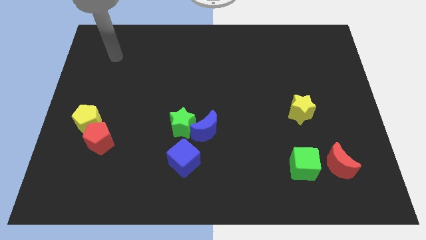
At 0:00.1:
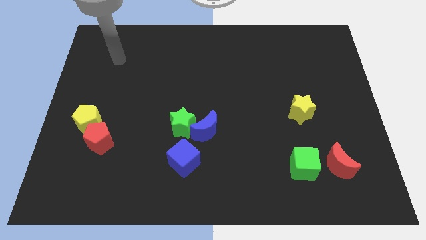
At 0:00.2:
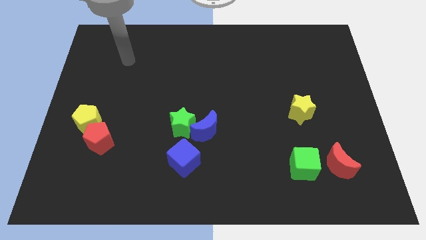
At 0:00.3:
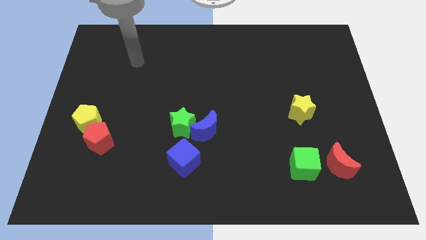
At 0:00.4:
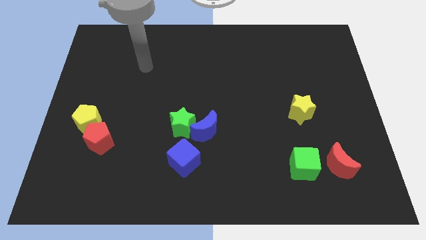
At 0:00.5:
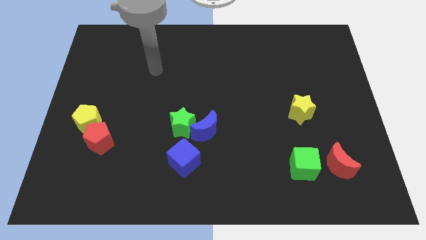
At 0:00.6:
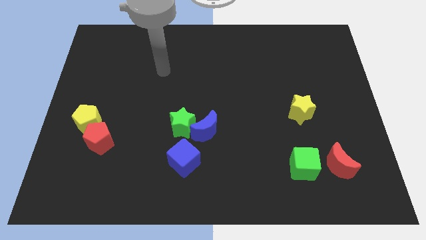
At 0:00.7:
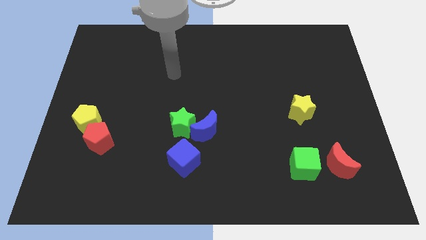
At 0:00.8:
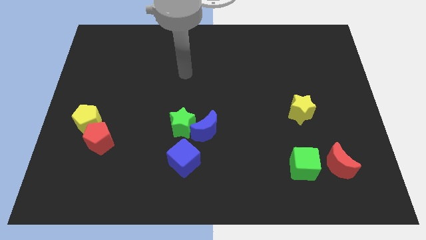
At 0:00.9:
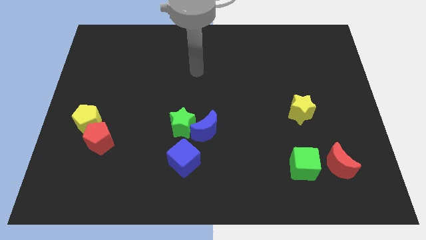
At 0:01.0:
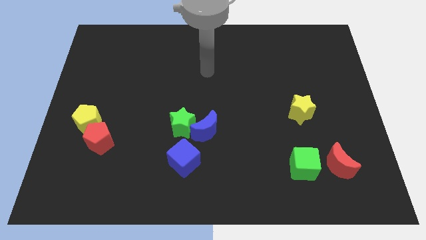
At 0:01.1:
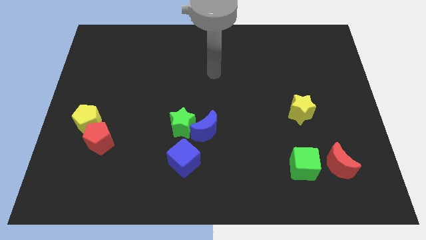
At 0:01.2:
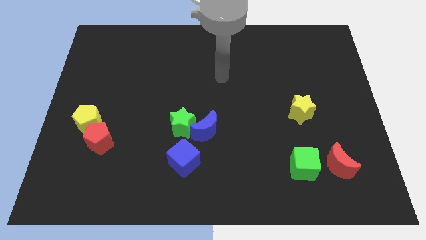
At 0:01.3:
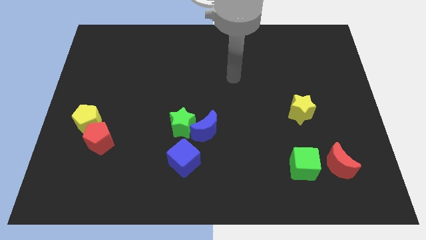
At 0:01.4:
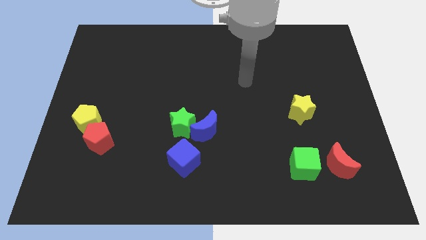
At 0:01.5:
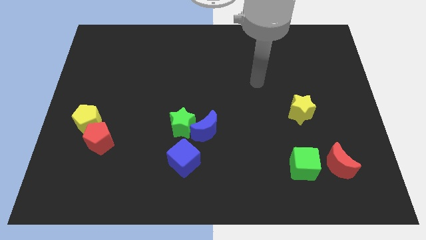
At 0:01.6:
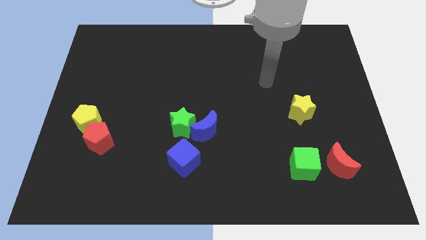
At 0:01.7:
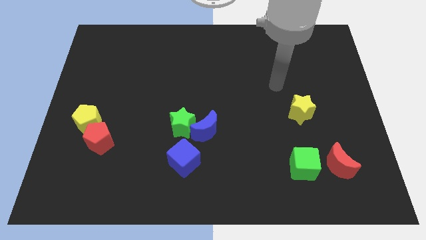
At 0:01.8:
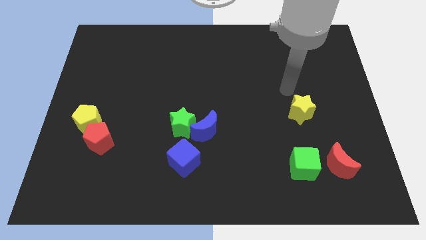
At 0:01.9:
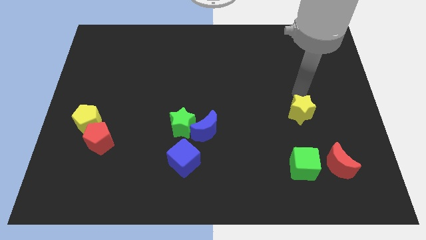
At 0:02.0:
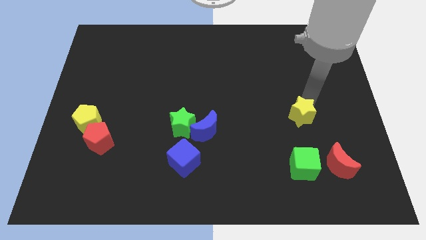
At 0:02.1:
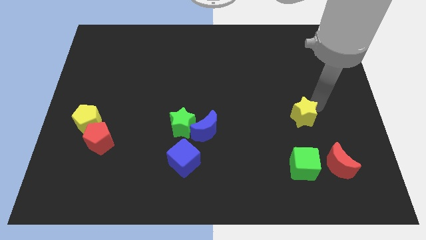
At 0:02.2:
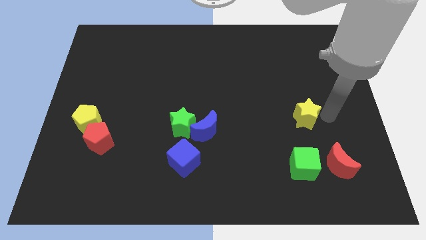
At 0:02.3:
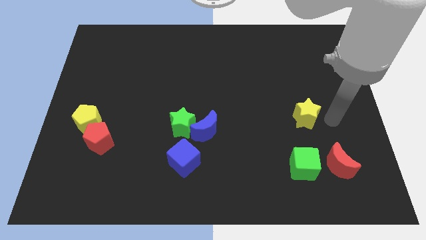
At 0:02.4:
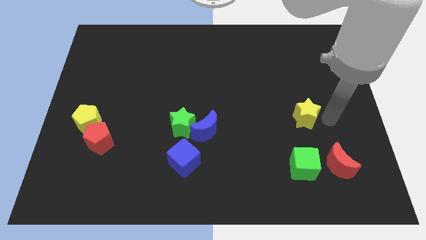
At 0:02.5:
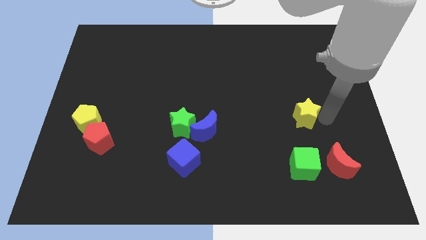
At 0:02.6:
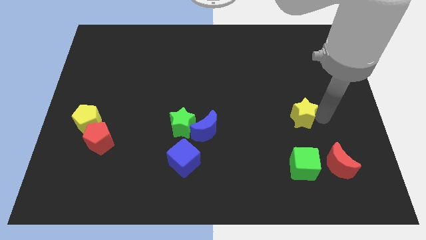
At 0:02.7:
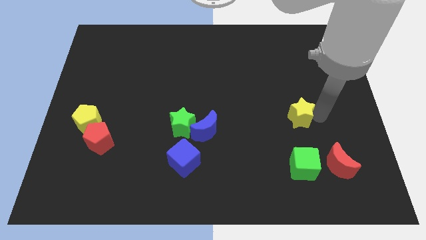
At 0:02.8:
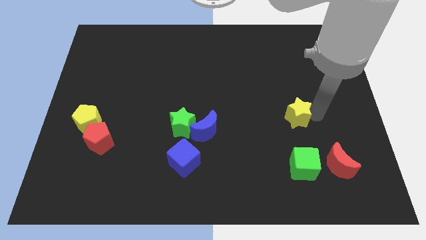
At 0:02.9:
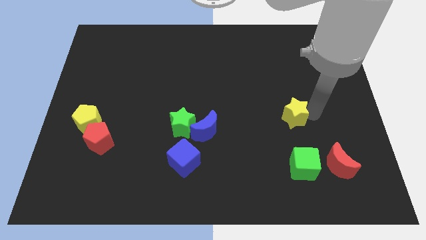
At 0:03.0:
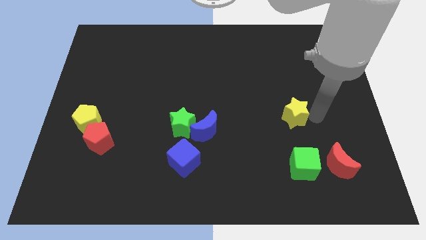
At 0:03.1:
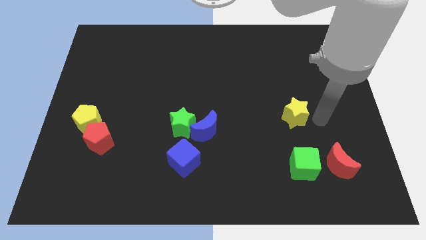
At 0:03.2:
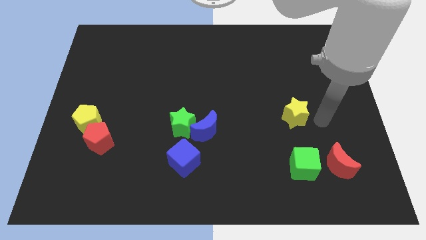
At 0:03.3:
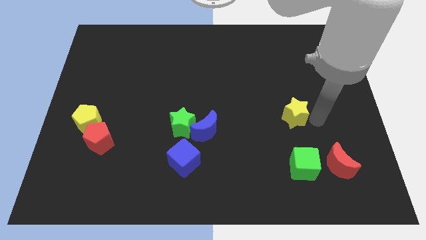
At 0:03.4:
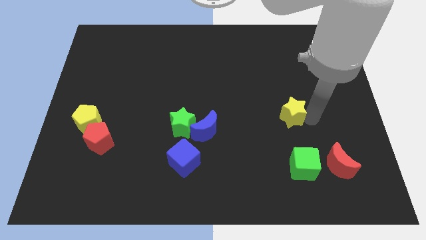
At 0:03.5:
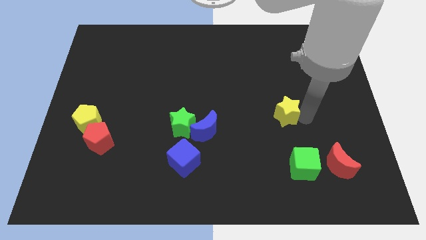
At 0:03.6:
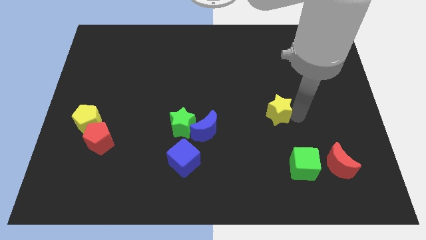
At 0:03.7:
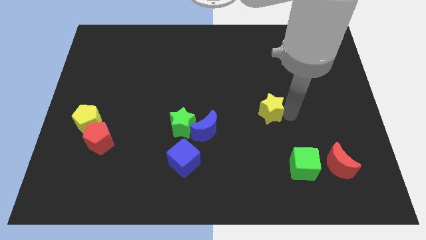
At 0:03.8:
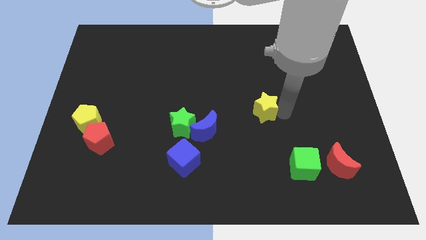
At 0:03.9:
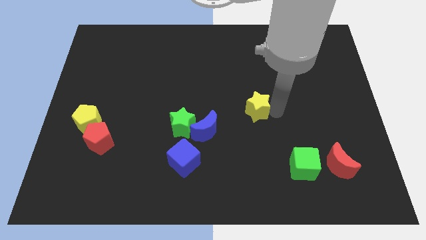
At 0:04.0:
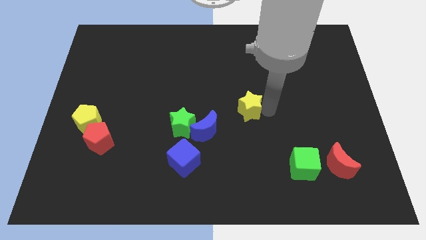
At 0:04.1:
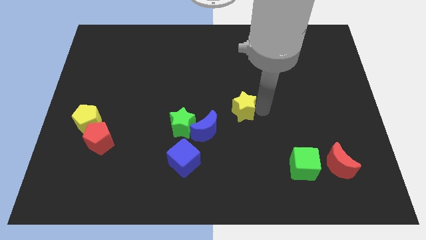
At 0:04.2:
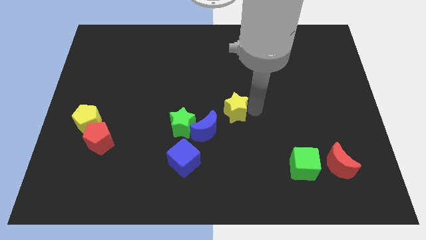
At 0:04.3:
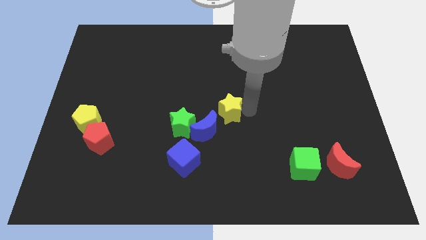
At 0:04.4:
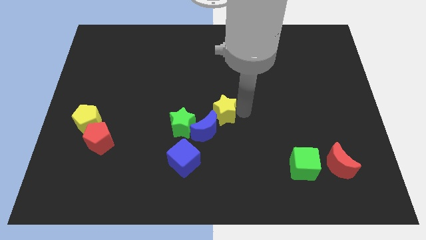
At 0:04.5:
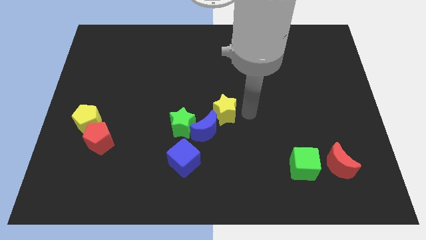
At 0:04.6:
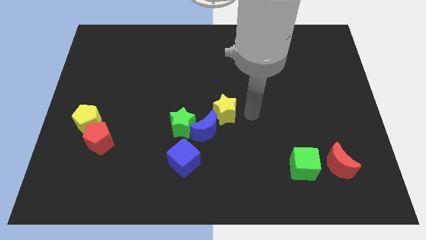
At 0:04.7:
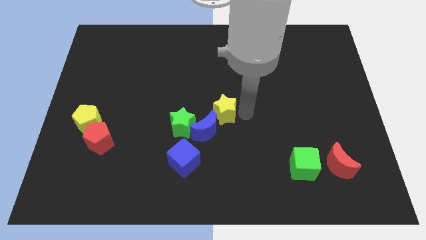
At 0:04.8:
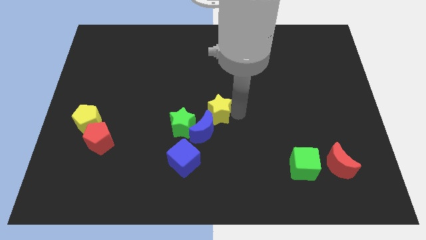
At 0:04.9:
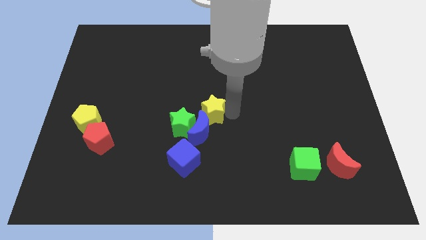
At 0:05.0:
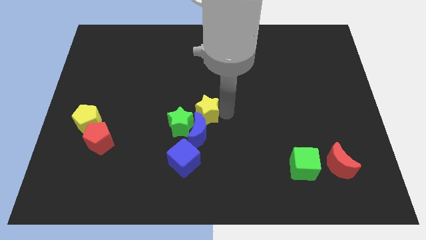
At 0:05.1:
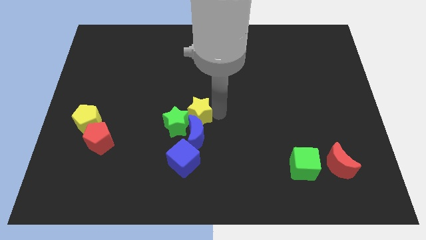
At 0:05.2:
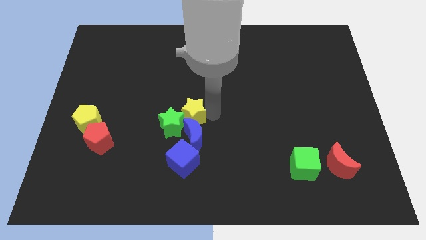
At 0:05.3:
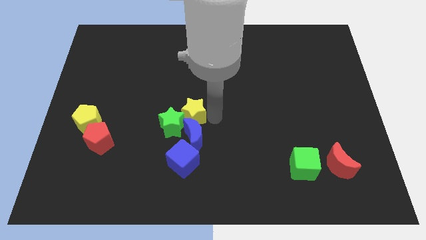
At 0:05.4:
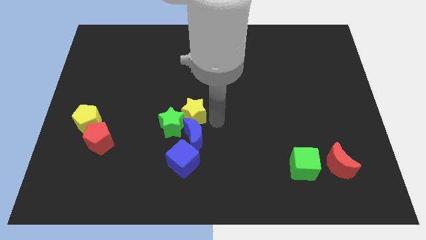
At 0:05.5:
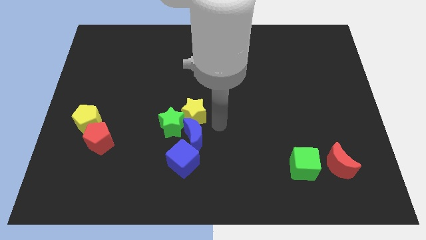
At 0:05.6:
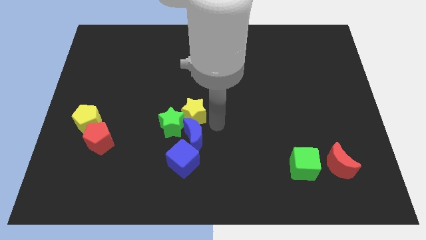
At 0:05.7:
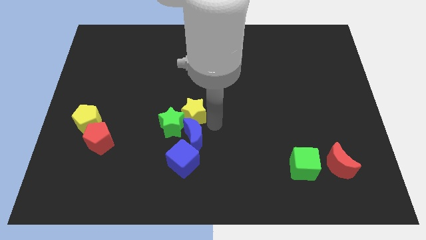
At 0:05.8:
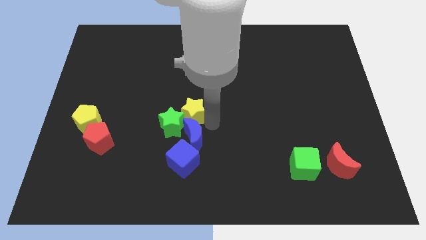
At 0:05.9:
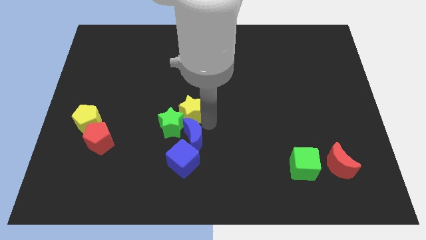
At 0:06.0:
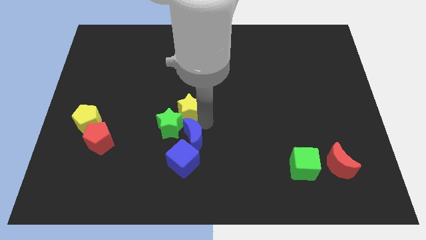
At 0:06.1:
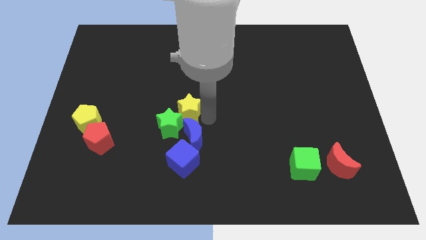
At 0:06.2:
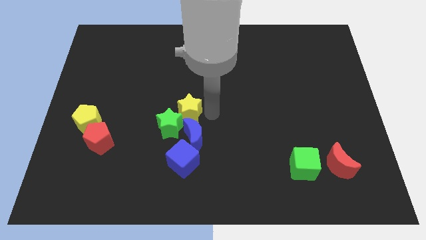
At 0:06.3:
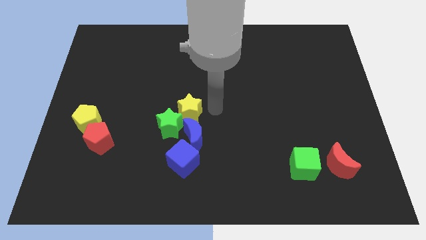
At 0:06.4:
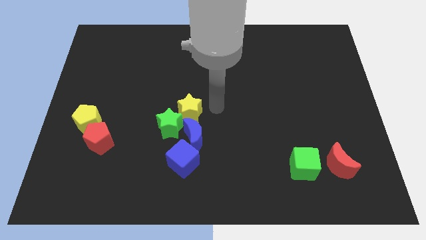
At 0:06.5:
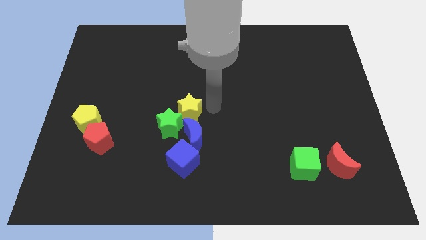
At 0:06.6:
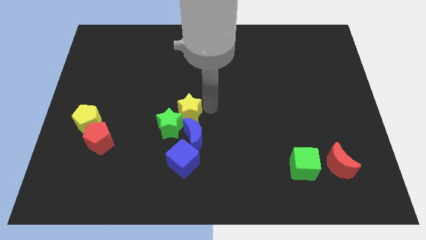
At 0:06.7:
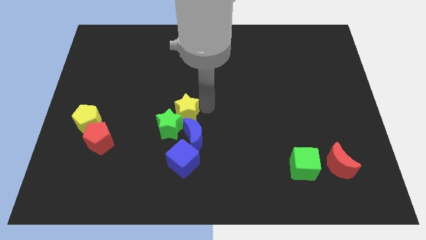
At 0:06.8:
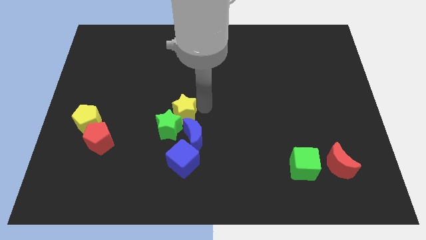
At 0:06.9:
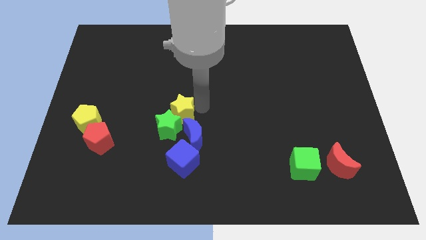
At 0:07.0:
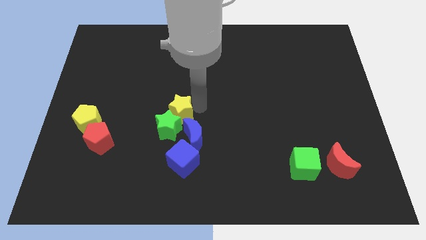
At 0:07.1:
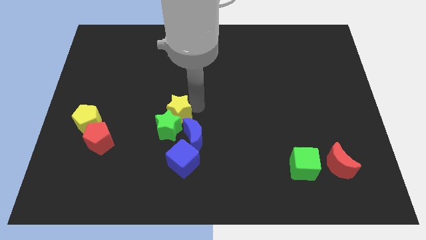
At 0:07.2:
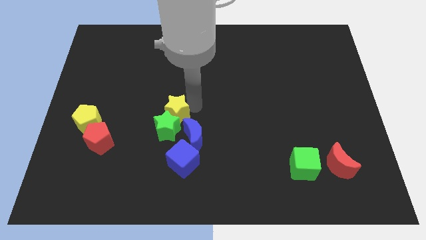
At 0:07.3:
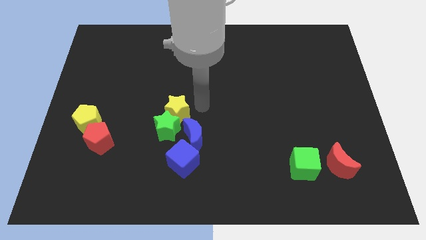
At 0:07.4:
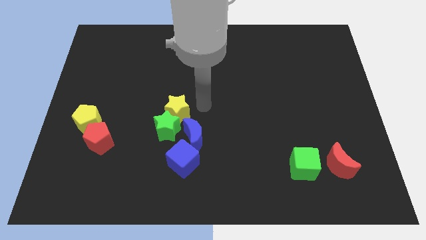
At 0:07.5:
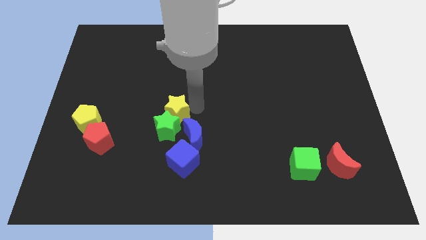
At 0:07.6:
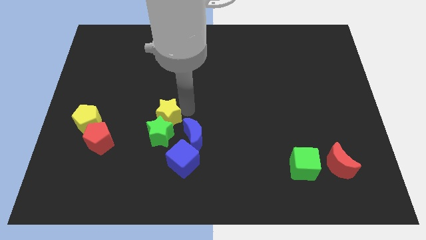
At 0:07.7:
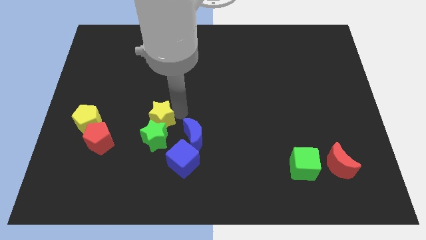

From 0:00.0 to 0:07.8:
put the yellow star to the right side of the yellow pentagon

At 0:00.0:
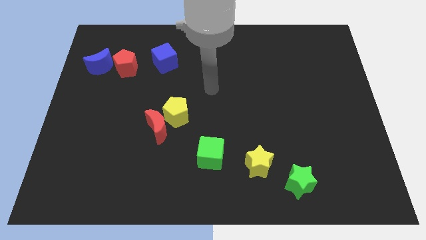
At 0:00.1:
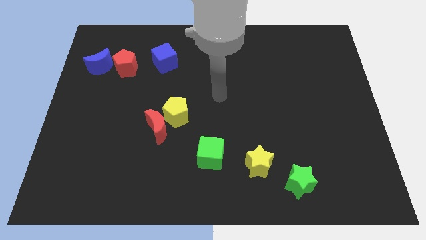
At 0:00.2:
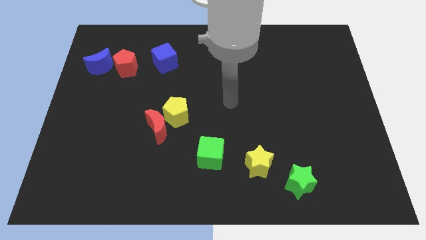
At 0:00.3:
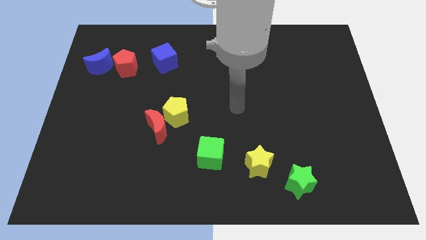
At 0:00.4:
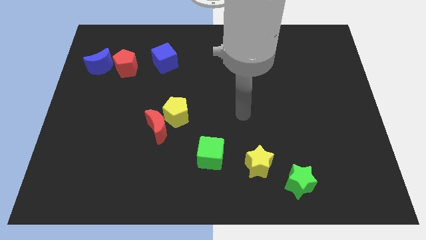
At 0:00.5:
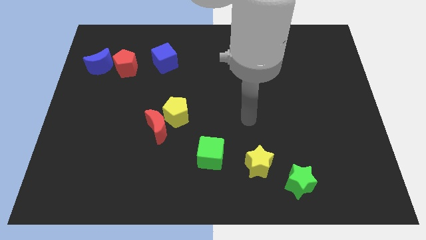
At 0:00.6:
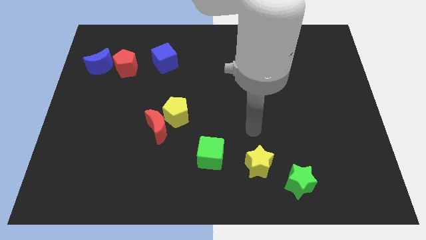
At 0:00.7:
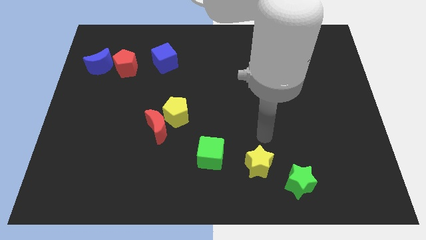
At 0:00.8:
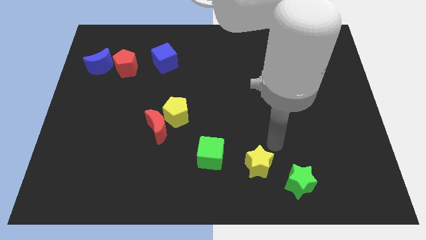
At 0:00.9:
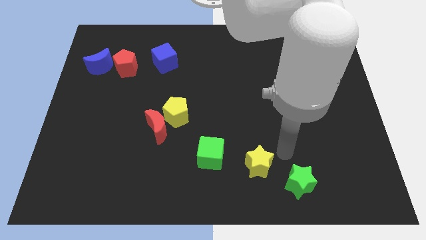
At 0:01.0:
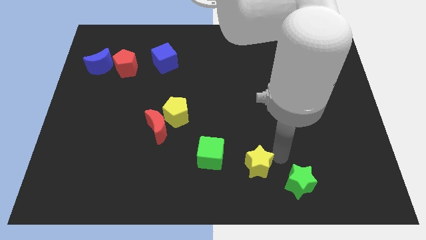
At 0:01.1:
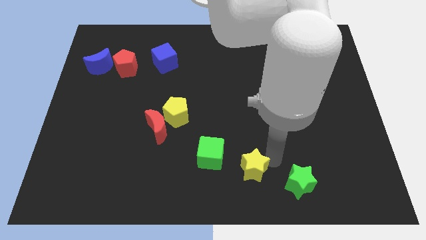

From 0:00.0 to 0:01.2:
slide the yellow star to the bottom right side of the green cube
